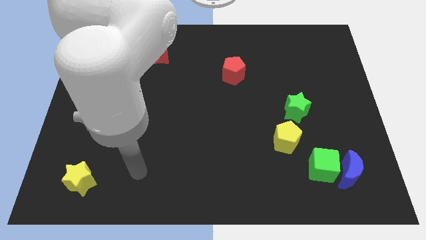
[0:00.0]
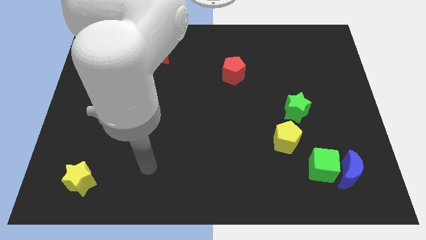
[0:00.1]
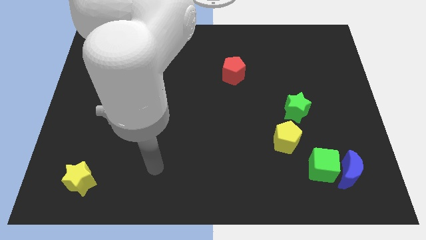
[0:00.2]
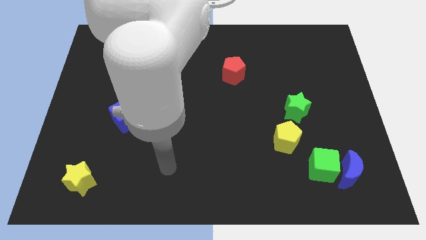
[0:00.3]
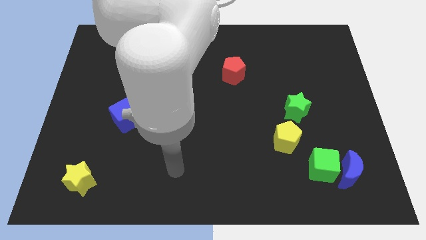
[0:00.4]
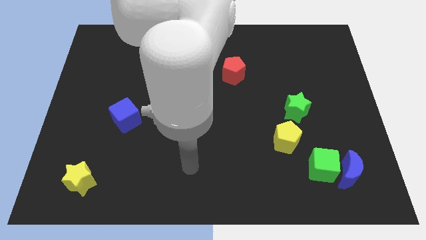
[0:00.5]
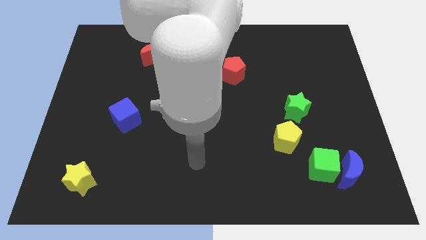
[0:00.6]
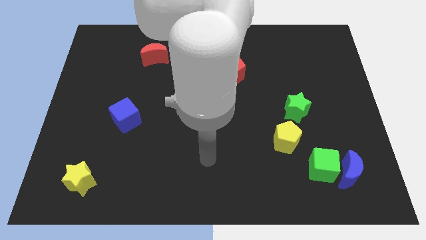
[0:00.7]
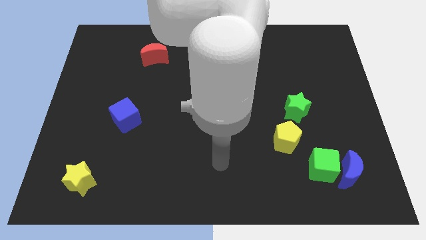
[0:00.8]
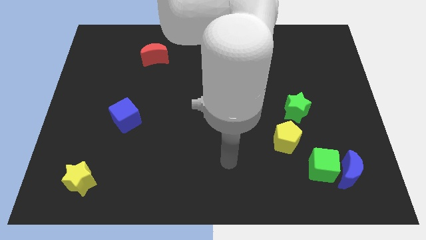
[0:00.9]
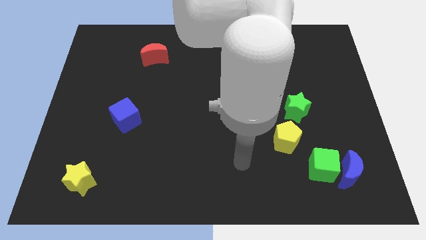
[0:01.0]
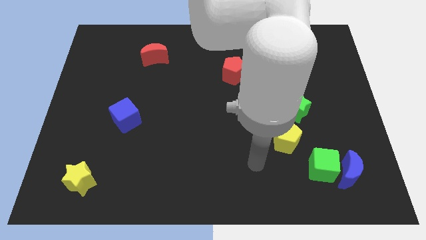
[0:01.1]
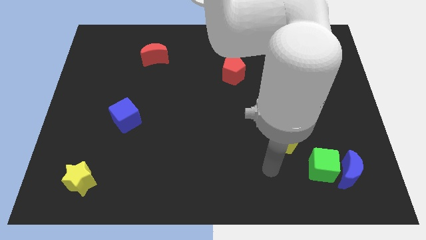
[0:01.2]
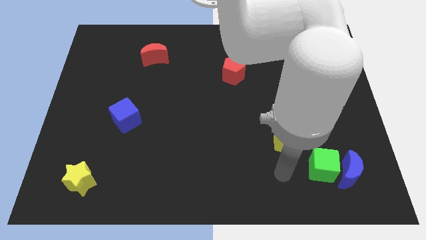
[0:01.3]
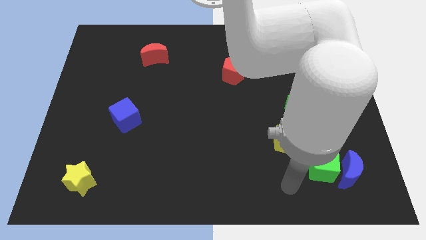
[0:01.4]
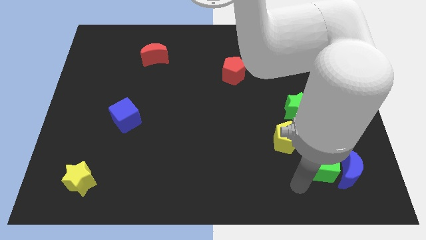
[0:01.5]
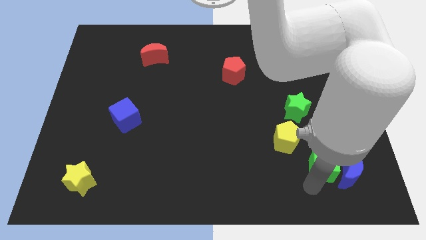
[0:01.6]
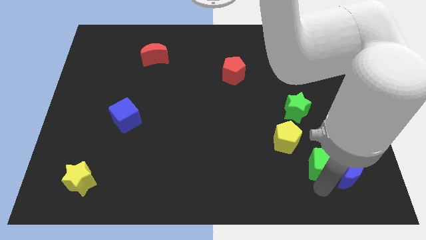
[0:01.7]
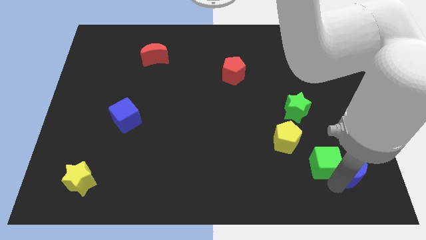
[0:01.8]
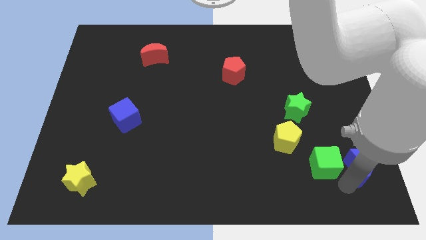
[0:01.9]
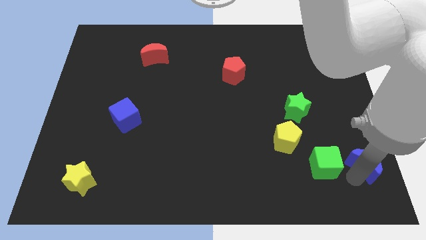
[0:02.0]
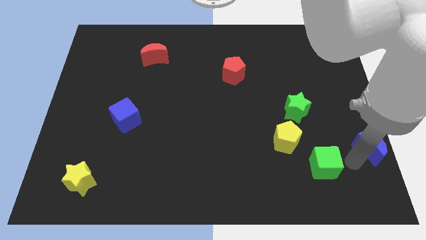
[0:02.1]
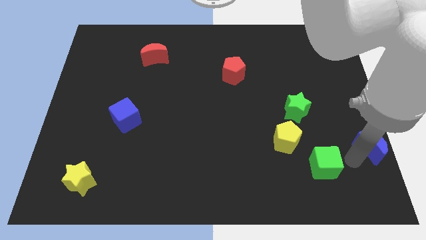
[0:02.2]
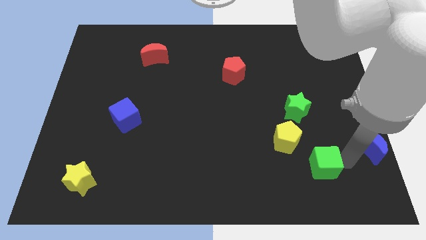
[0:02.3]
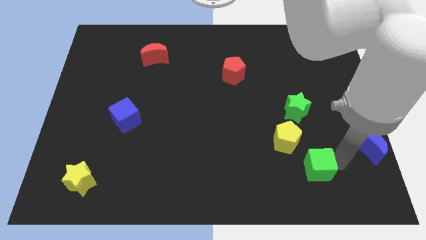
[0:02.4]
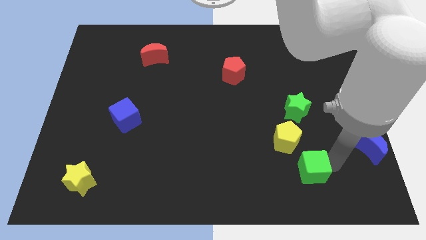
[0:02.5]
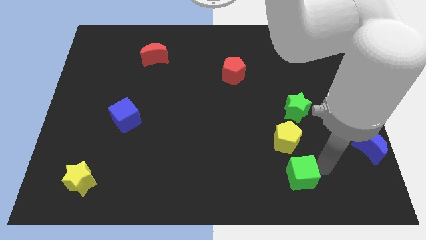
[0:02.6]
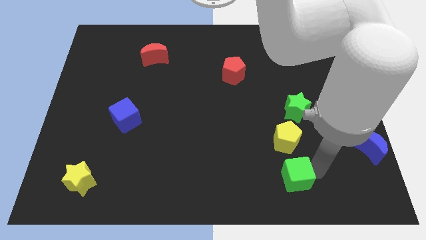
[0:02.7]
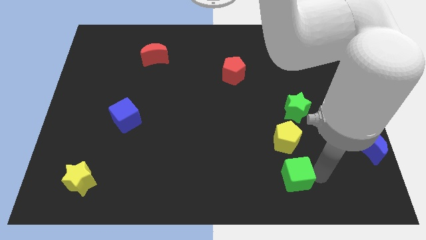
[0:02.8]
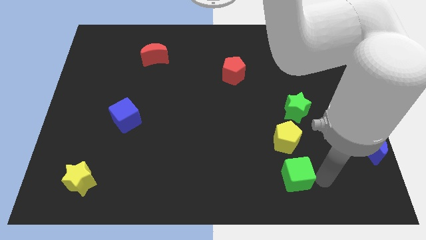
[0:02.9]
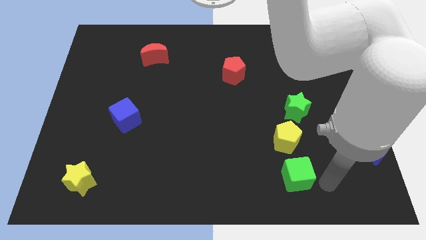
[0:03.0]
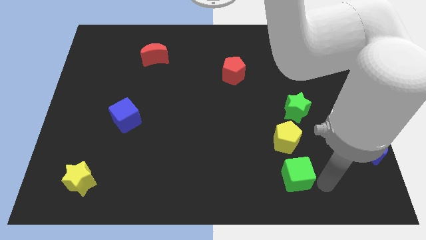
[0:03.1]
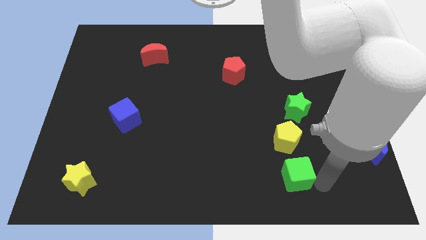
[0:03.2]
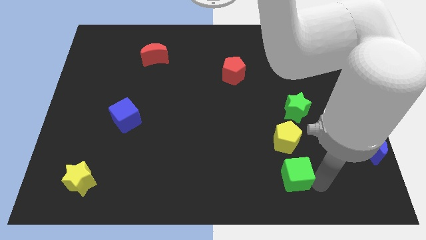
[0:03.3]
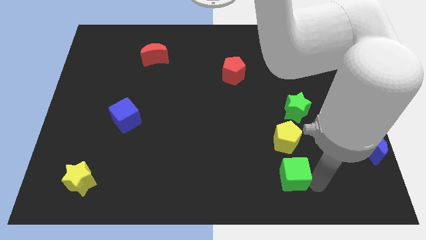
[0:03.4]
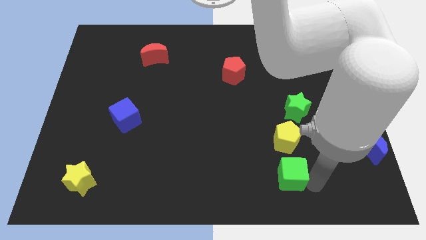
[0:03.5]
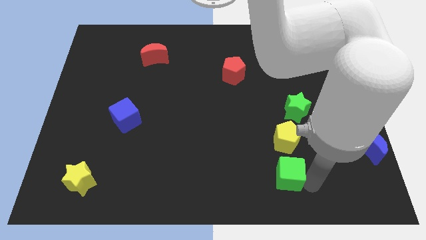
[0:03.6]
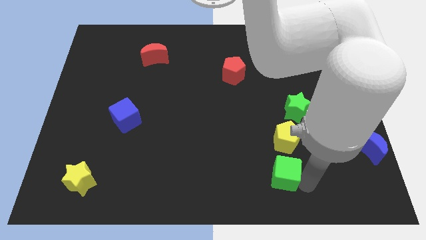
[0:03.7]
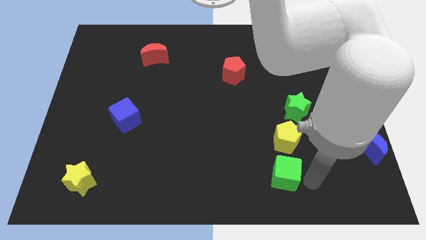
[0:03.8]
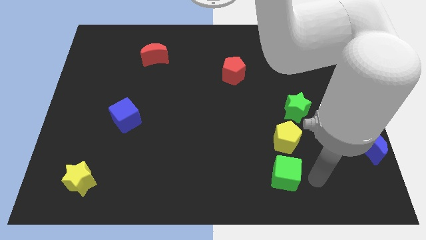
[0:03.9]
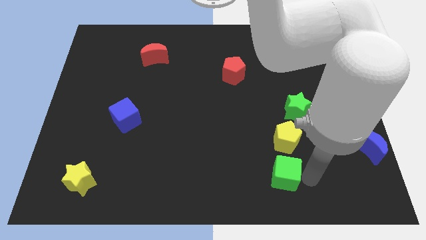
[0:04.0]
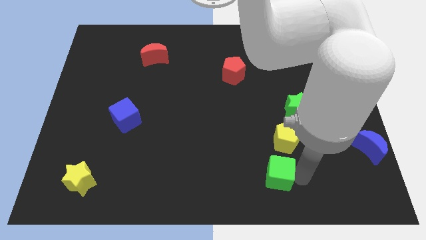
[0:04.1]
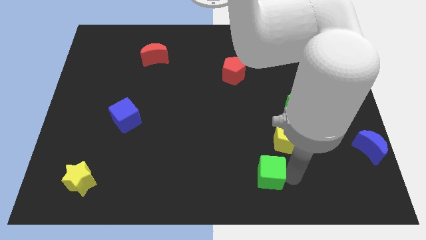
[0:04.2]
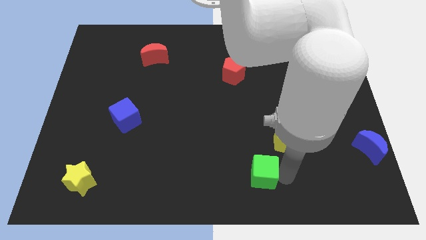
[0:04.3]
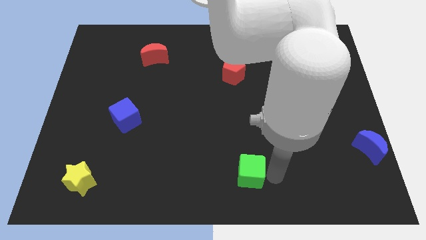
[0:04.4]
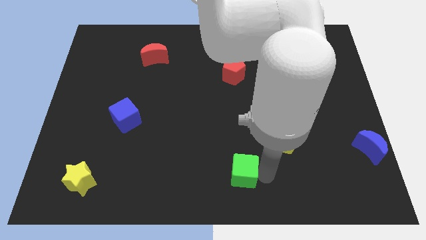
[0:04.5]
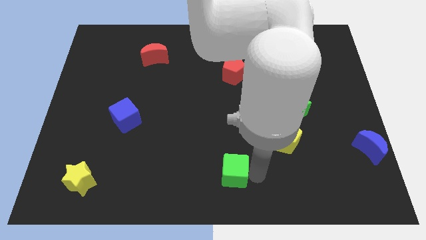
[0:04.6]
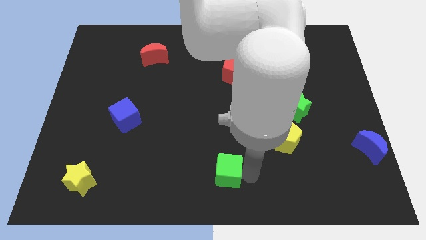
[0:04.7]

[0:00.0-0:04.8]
slide the green cube left

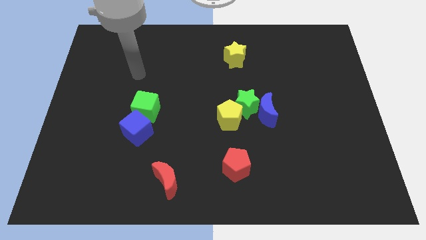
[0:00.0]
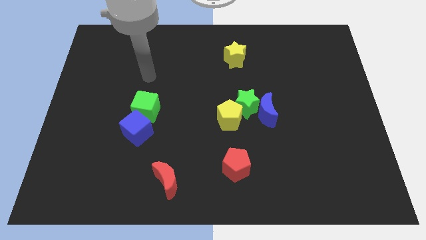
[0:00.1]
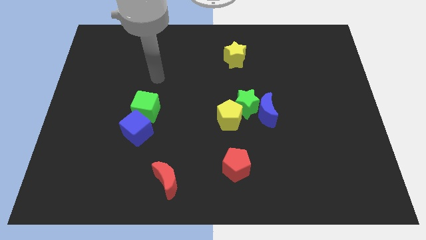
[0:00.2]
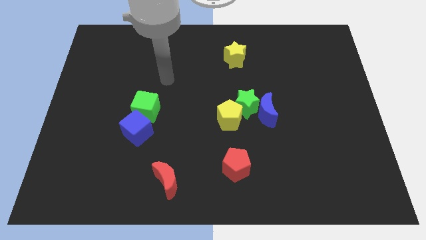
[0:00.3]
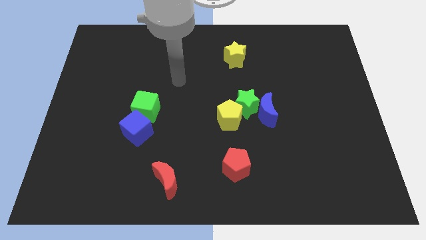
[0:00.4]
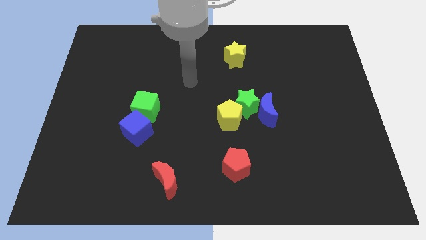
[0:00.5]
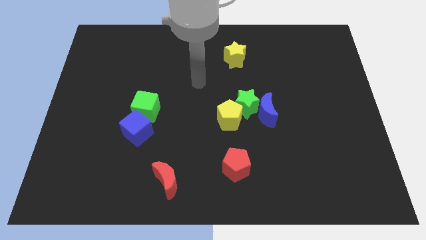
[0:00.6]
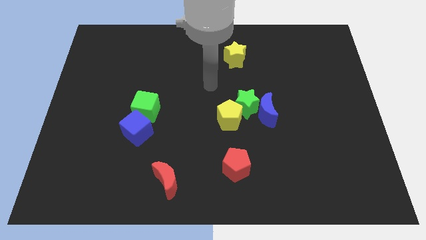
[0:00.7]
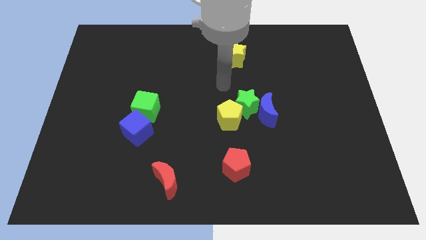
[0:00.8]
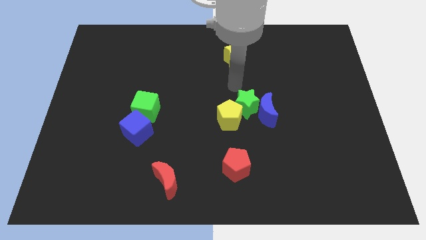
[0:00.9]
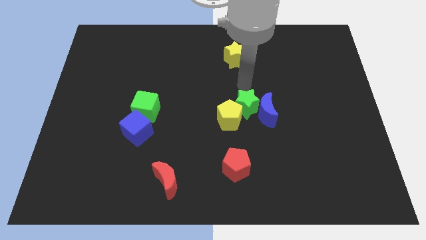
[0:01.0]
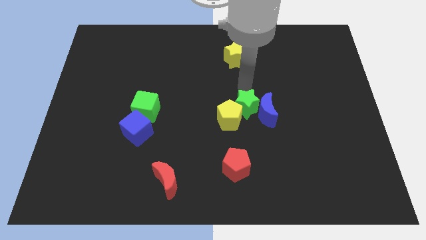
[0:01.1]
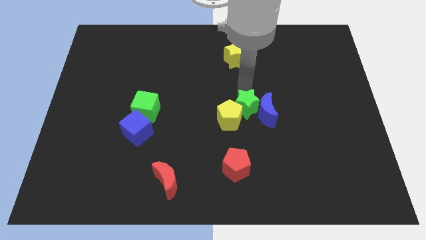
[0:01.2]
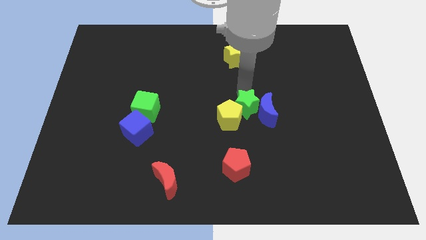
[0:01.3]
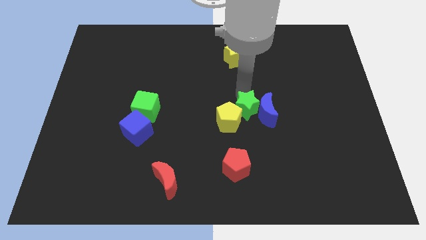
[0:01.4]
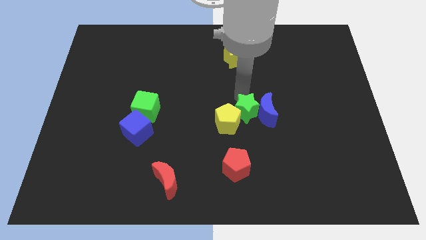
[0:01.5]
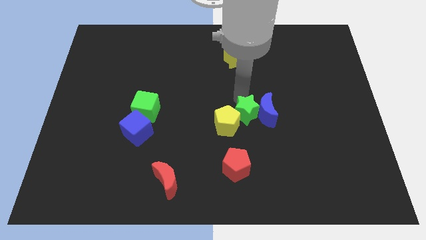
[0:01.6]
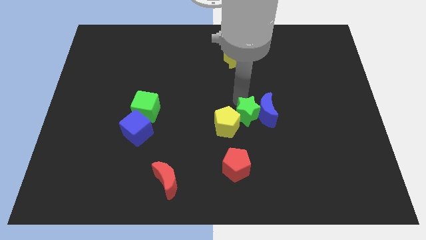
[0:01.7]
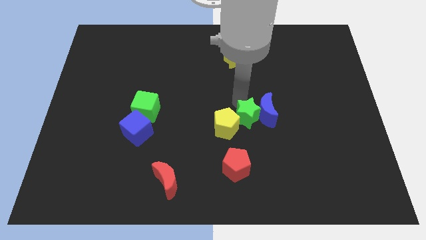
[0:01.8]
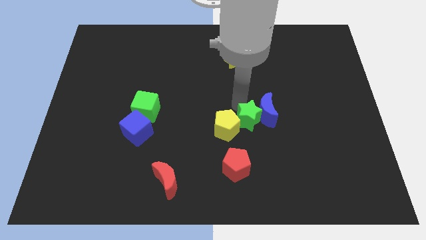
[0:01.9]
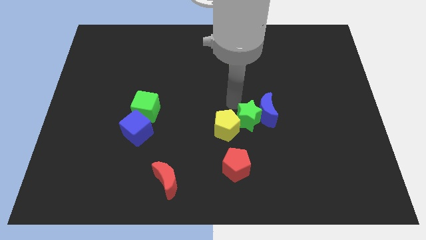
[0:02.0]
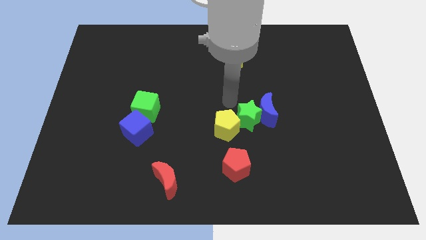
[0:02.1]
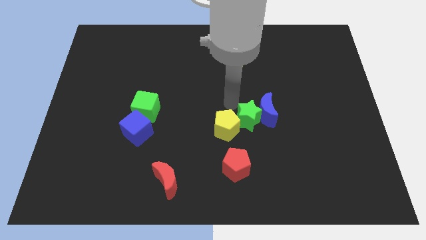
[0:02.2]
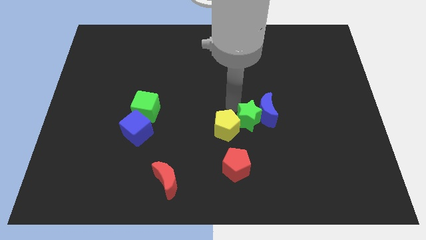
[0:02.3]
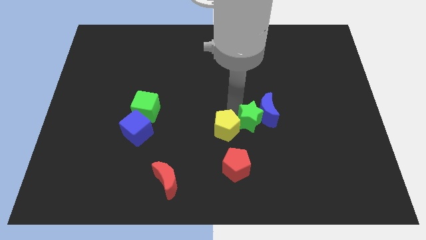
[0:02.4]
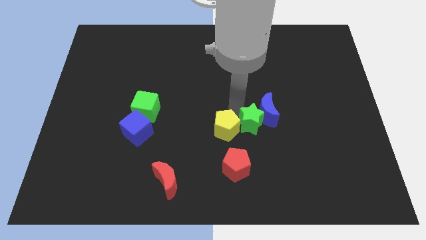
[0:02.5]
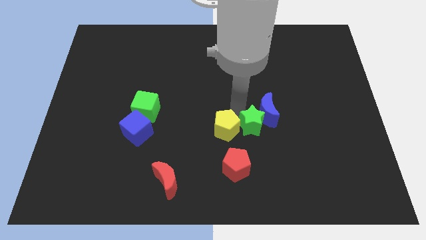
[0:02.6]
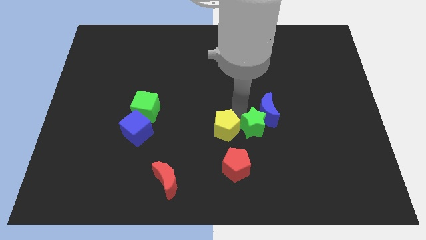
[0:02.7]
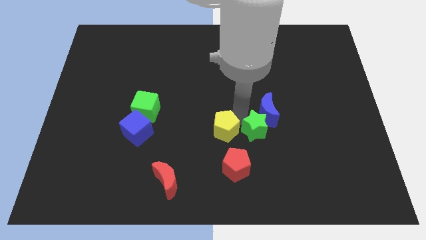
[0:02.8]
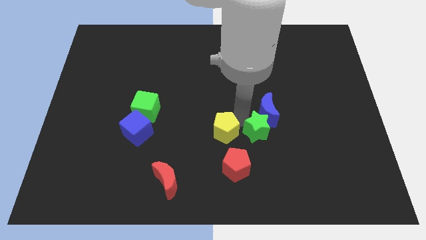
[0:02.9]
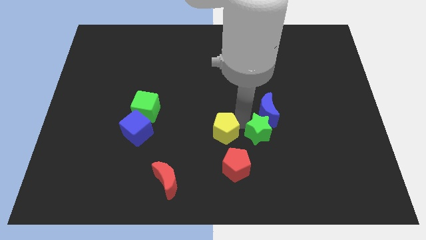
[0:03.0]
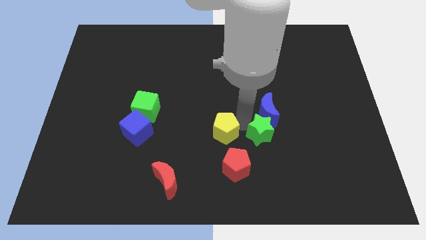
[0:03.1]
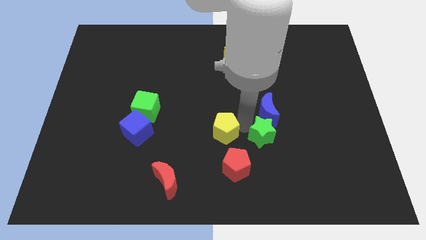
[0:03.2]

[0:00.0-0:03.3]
slightly push the green star down and right
